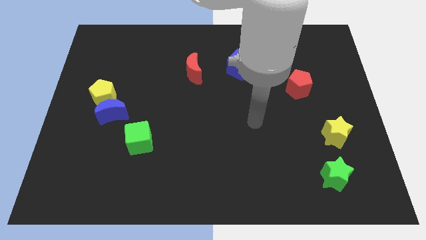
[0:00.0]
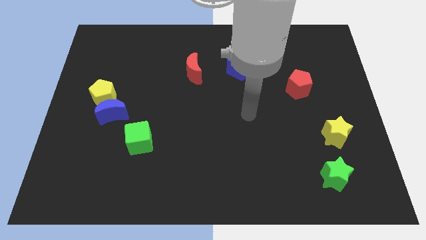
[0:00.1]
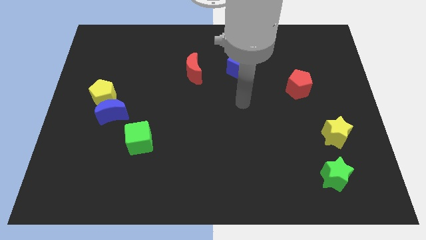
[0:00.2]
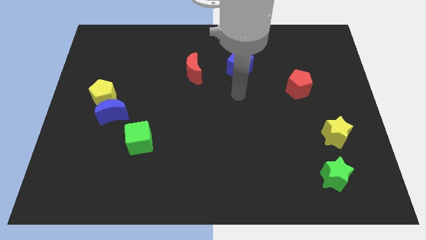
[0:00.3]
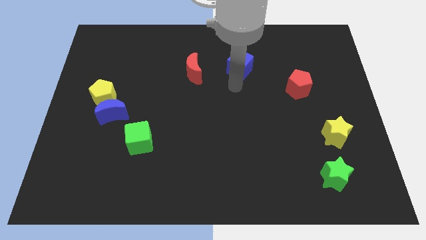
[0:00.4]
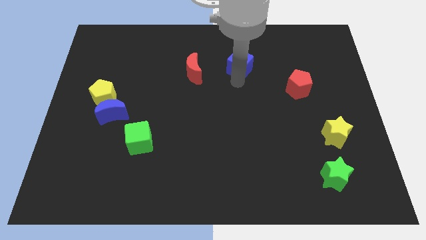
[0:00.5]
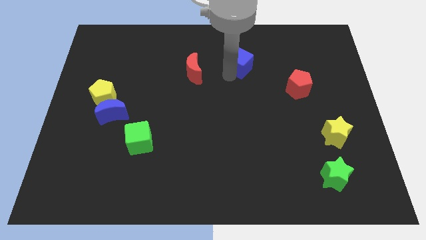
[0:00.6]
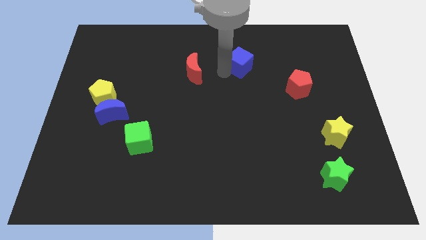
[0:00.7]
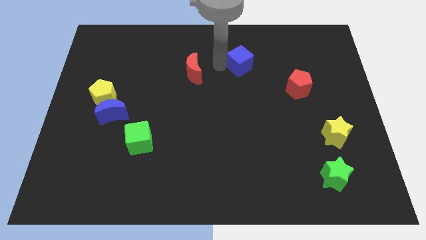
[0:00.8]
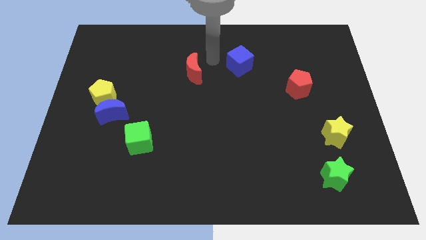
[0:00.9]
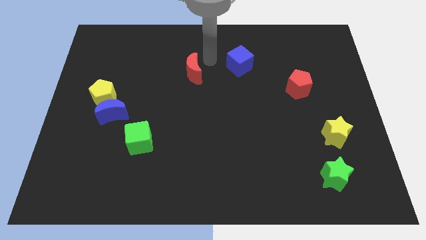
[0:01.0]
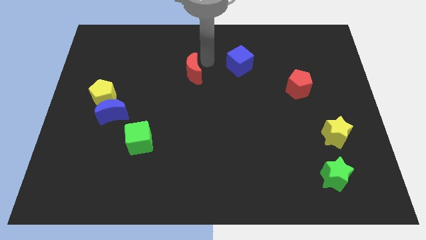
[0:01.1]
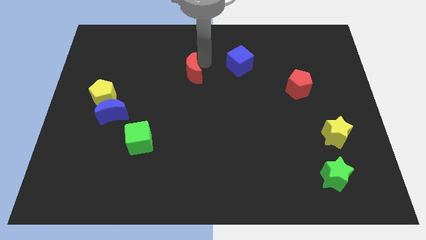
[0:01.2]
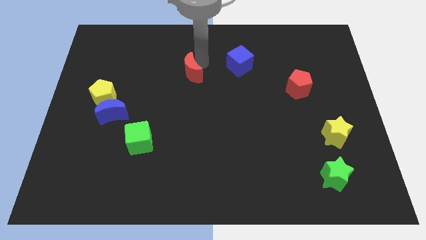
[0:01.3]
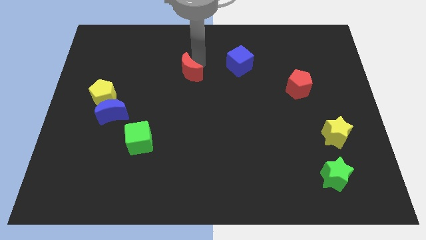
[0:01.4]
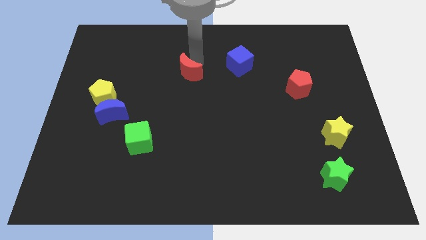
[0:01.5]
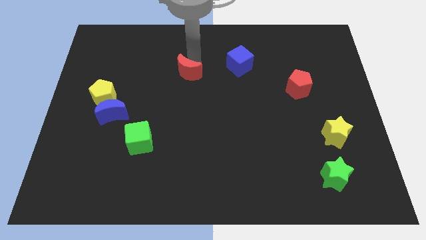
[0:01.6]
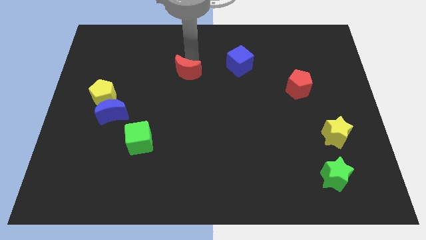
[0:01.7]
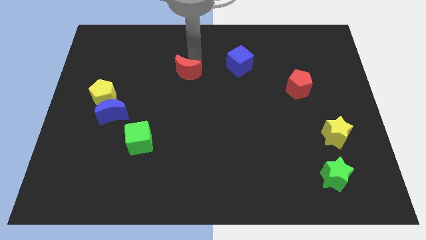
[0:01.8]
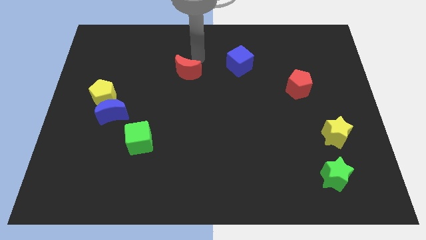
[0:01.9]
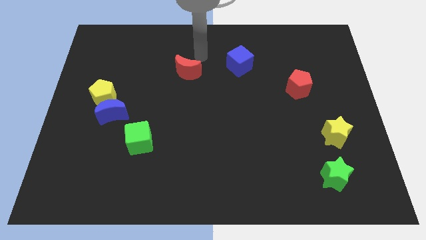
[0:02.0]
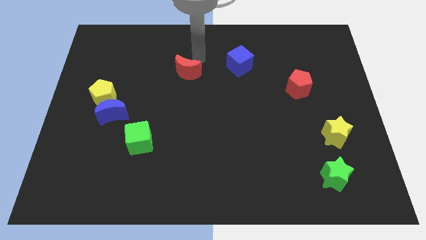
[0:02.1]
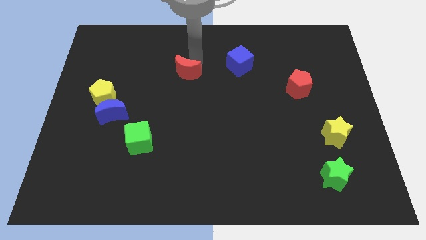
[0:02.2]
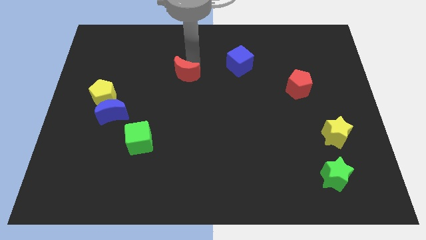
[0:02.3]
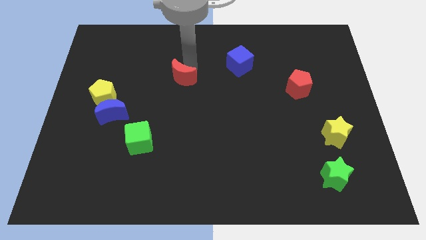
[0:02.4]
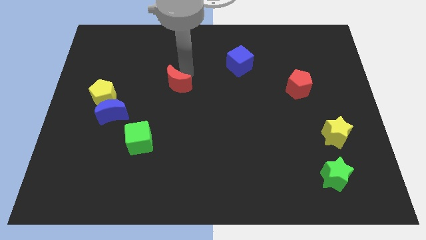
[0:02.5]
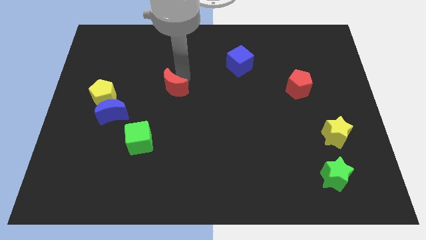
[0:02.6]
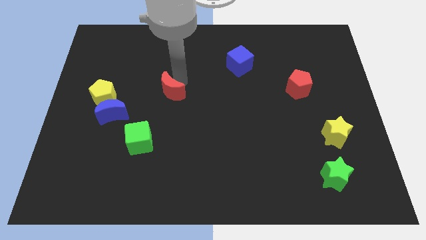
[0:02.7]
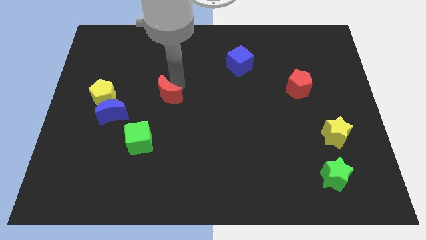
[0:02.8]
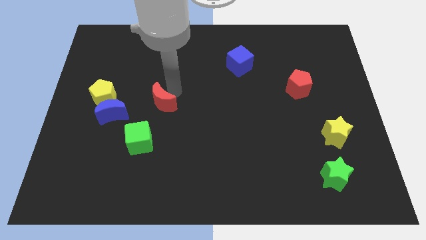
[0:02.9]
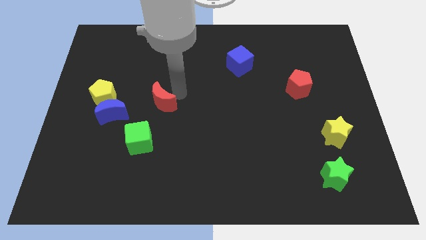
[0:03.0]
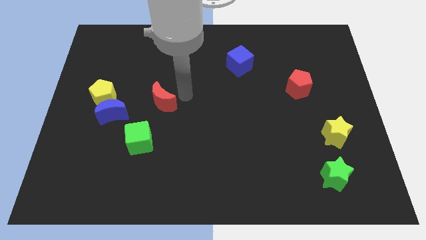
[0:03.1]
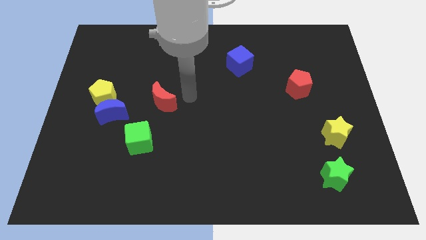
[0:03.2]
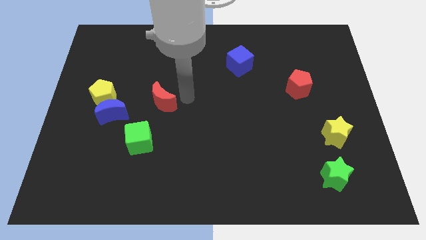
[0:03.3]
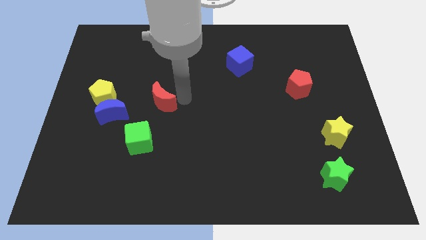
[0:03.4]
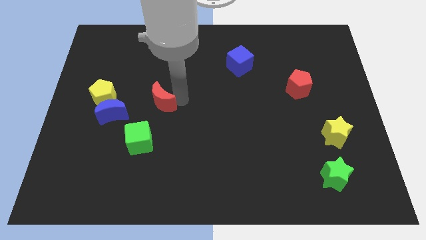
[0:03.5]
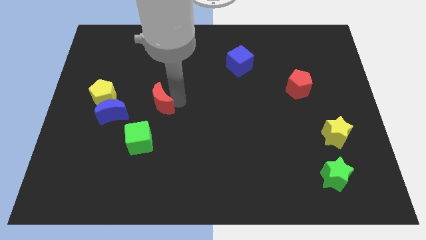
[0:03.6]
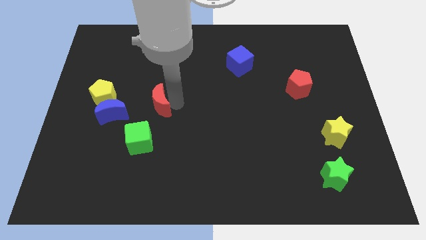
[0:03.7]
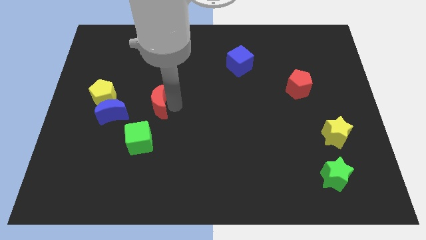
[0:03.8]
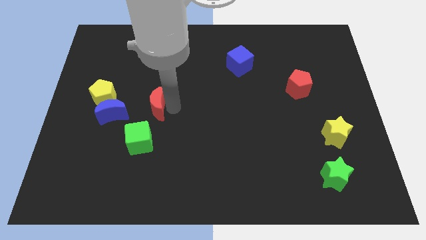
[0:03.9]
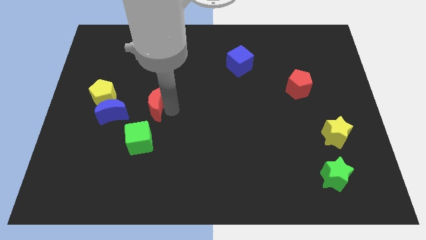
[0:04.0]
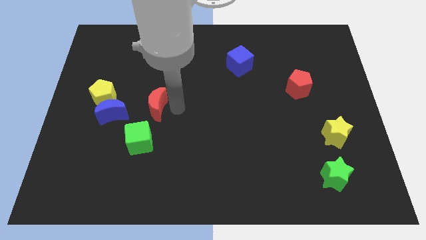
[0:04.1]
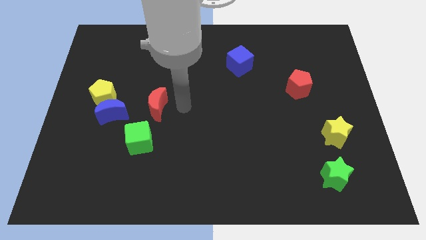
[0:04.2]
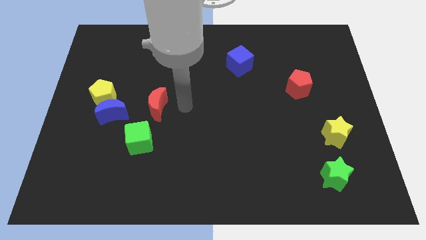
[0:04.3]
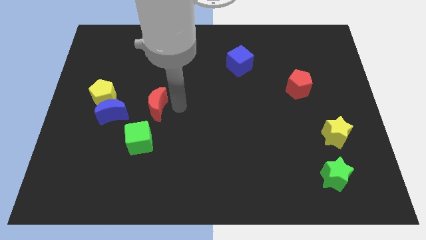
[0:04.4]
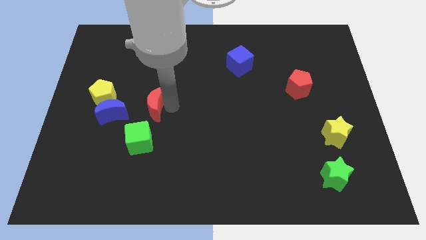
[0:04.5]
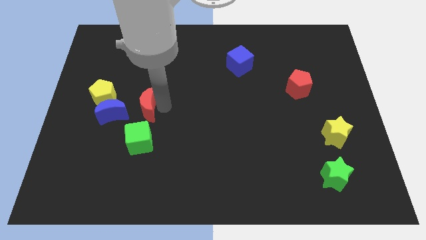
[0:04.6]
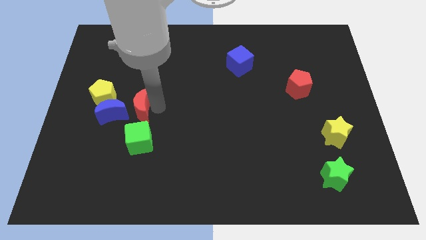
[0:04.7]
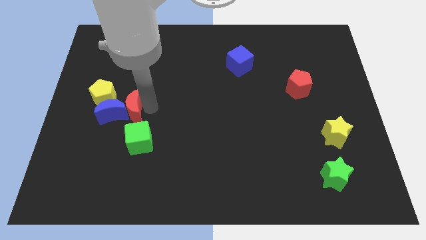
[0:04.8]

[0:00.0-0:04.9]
put the red moon to the blue moon

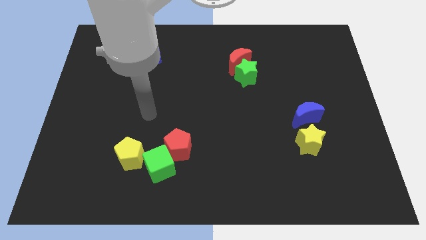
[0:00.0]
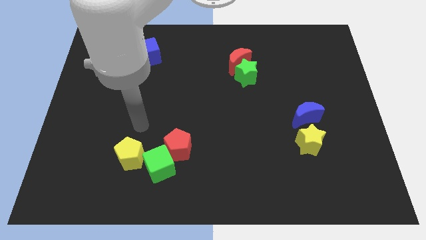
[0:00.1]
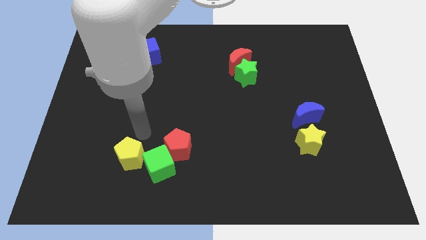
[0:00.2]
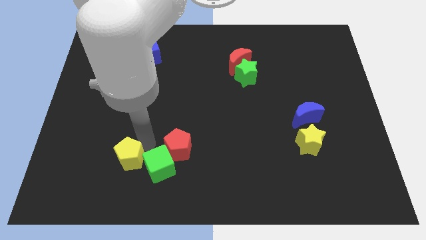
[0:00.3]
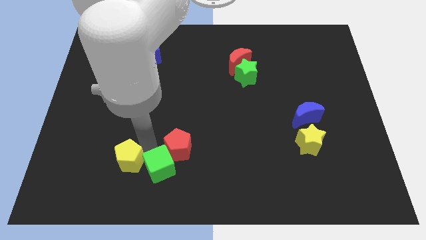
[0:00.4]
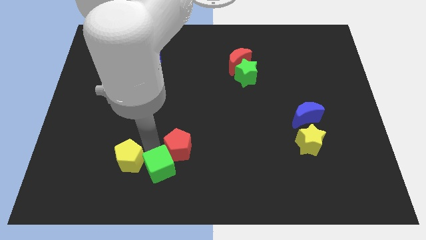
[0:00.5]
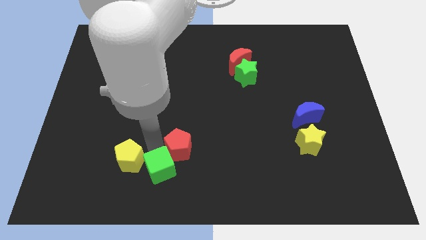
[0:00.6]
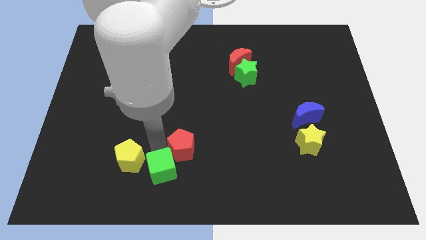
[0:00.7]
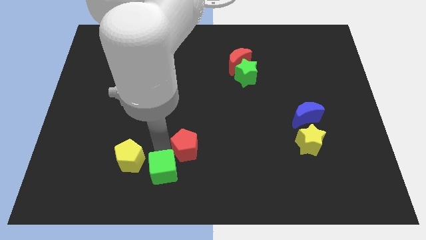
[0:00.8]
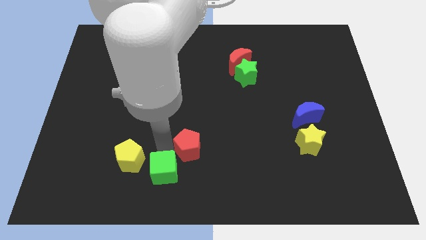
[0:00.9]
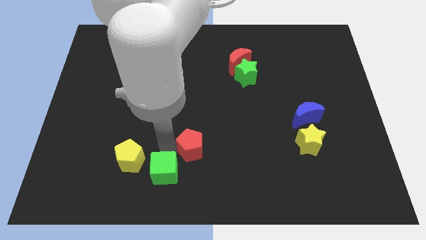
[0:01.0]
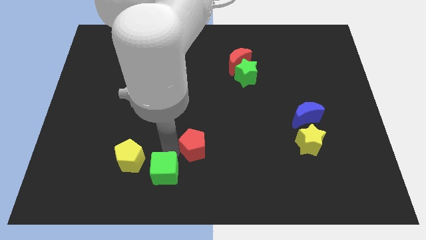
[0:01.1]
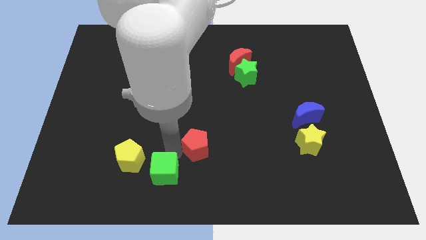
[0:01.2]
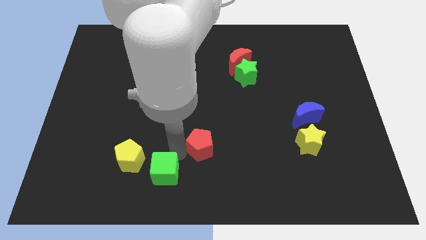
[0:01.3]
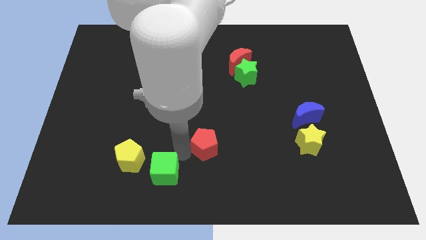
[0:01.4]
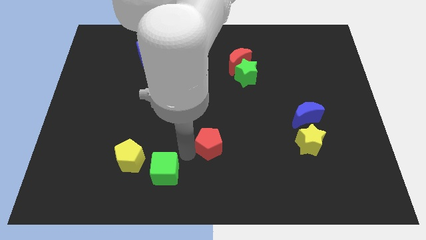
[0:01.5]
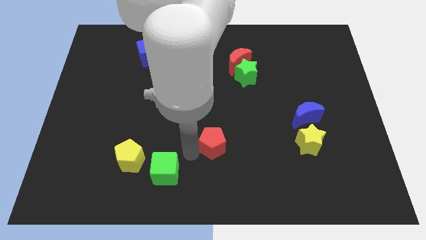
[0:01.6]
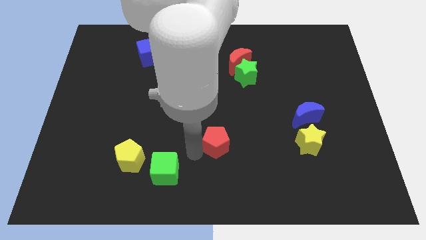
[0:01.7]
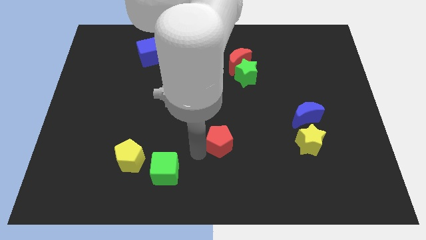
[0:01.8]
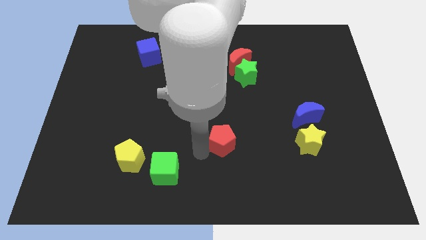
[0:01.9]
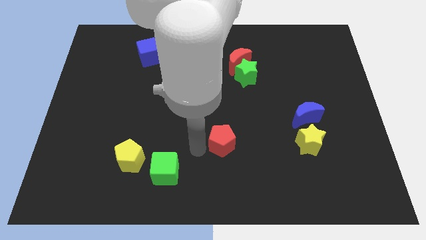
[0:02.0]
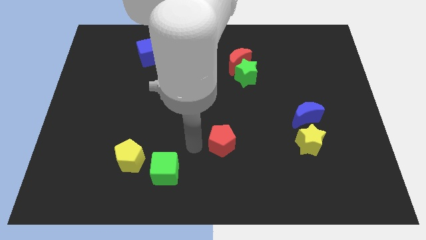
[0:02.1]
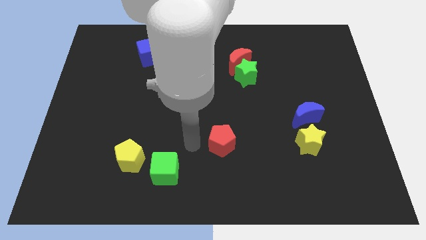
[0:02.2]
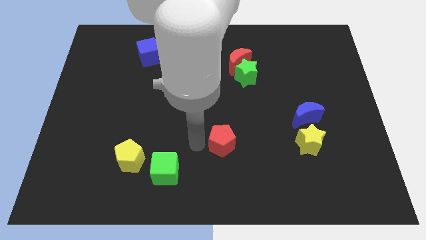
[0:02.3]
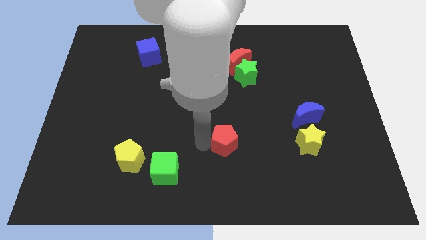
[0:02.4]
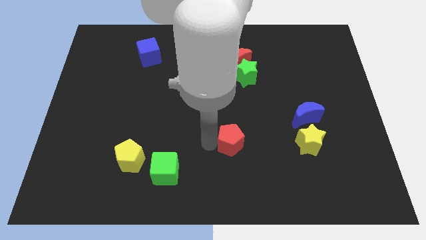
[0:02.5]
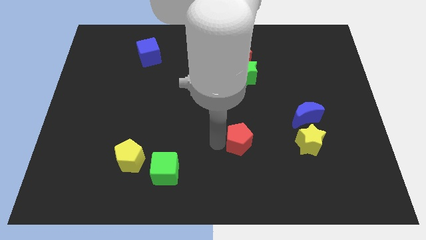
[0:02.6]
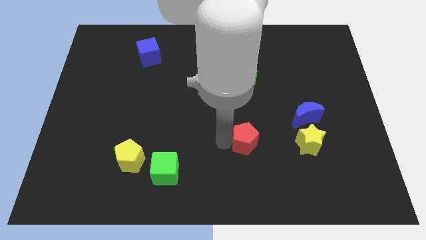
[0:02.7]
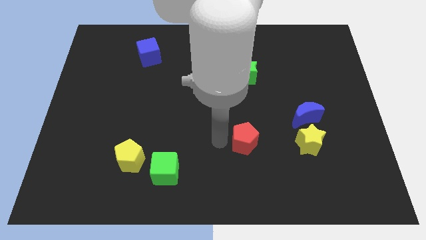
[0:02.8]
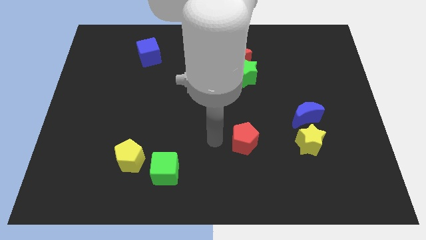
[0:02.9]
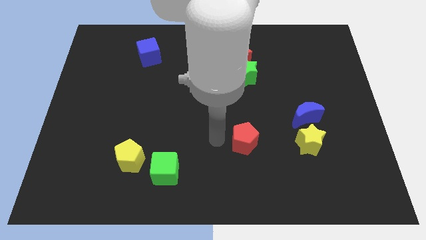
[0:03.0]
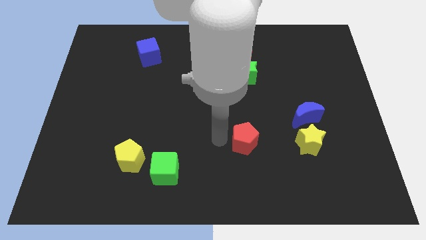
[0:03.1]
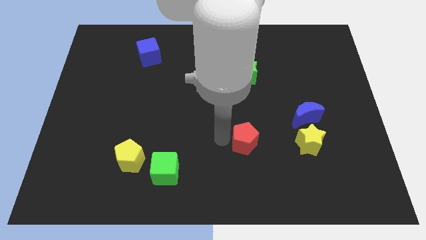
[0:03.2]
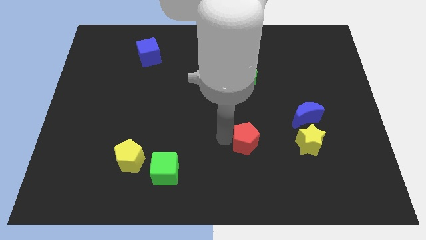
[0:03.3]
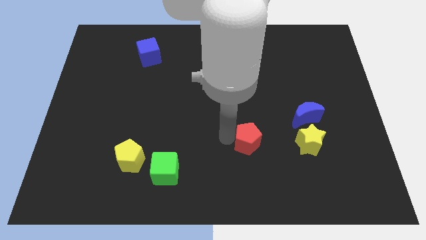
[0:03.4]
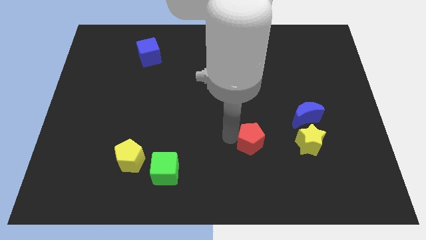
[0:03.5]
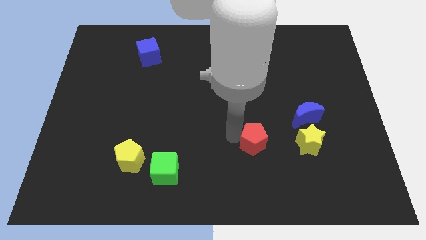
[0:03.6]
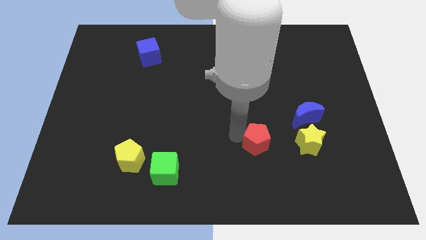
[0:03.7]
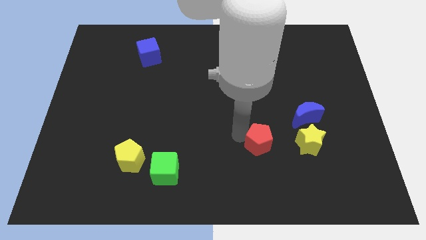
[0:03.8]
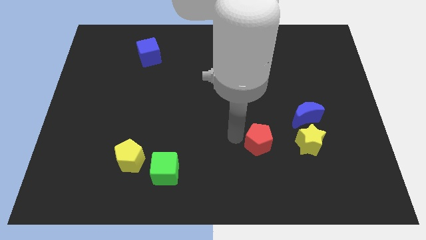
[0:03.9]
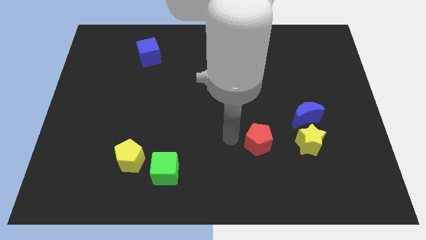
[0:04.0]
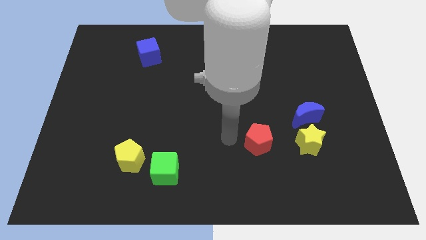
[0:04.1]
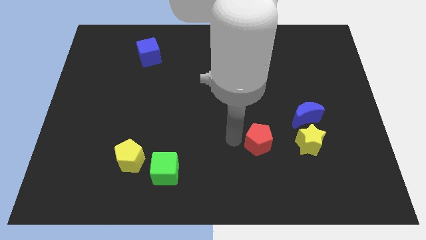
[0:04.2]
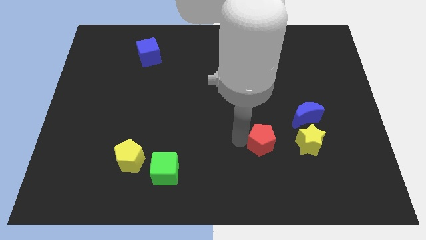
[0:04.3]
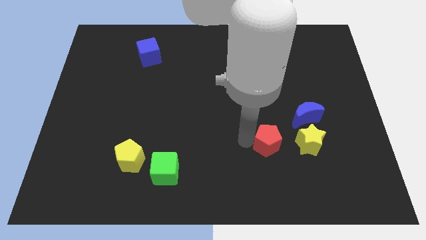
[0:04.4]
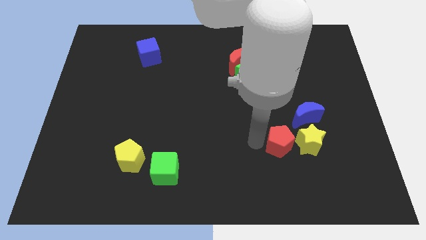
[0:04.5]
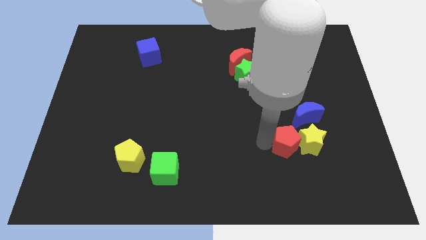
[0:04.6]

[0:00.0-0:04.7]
move the red pentagon towards the yellow star
